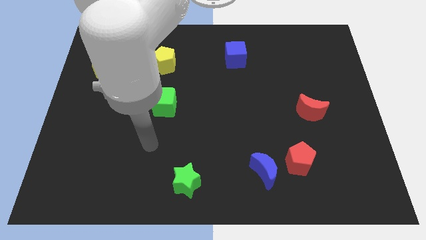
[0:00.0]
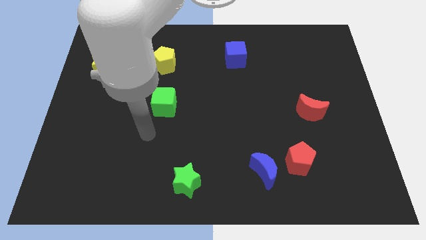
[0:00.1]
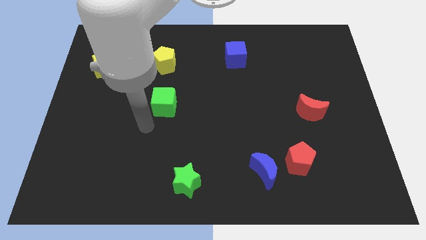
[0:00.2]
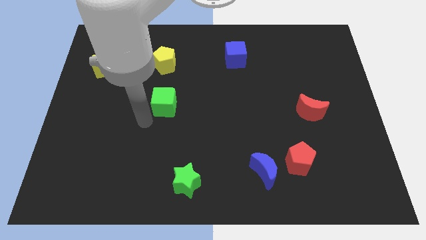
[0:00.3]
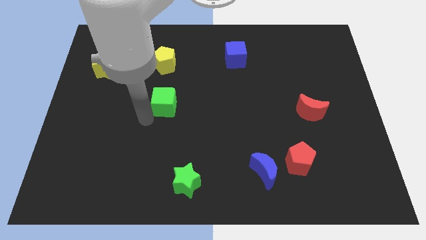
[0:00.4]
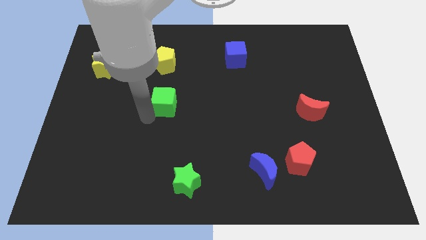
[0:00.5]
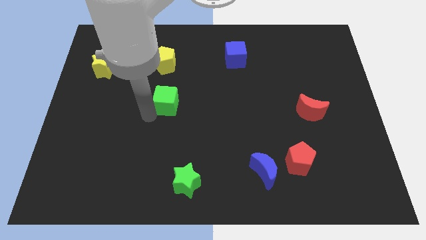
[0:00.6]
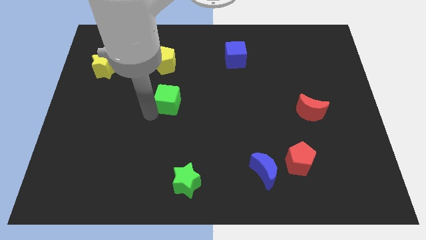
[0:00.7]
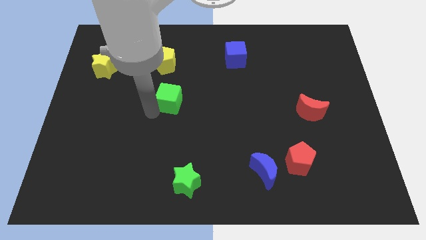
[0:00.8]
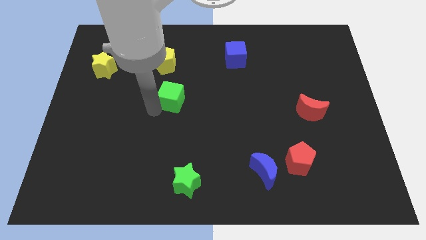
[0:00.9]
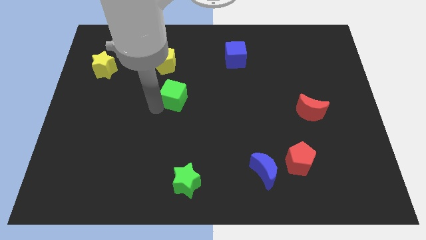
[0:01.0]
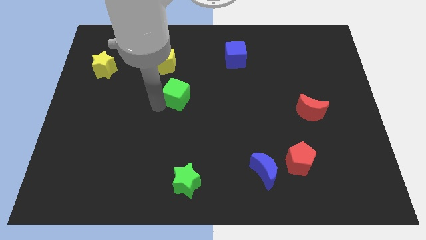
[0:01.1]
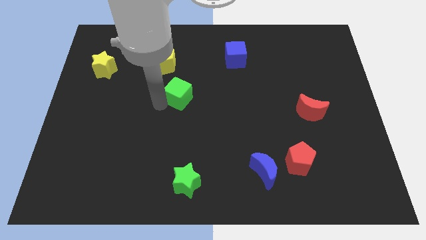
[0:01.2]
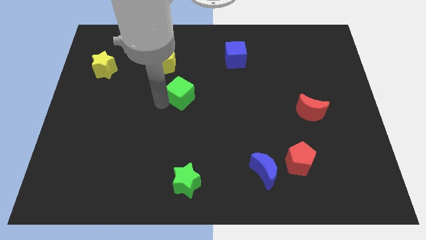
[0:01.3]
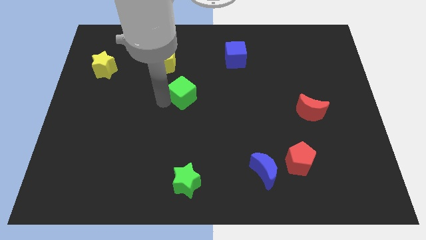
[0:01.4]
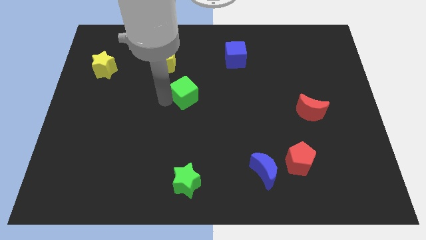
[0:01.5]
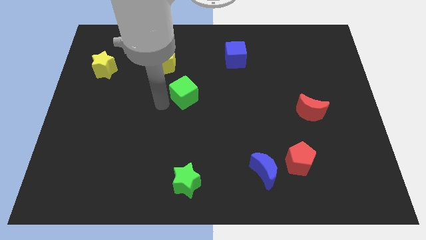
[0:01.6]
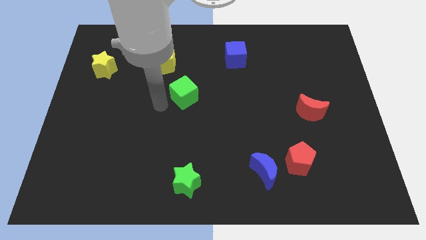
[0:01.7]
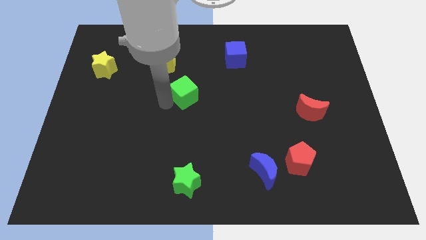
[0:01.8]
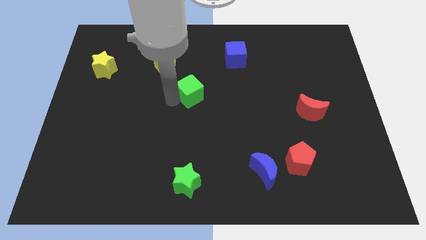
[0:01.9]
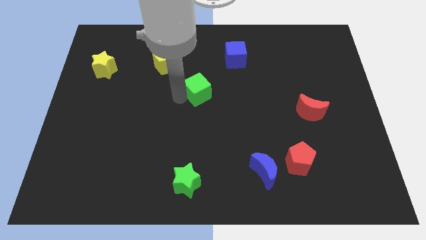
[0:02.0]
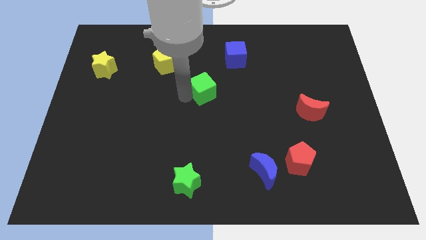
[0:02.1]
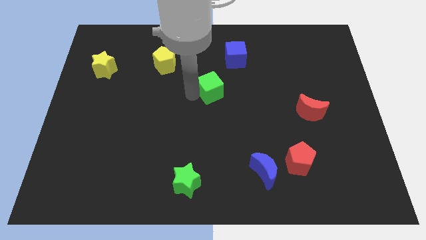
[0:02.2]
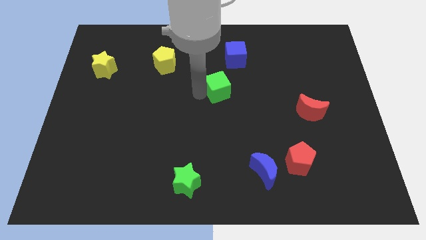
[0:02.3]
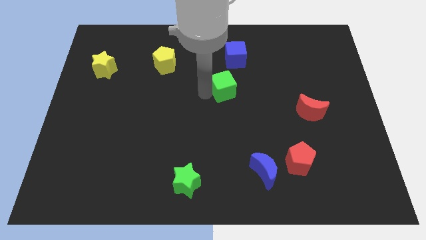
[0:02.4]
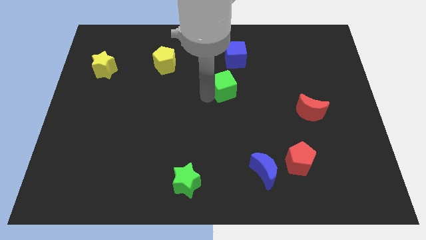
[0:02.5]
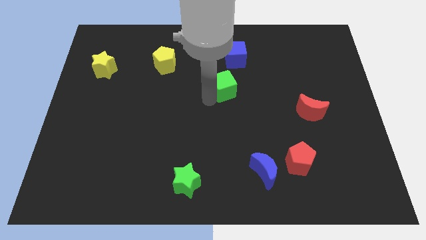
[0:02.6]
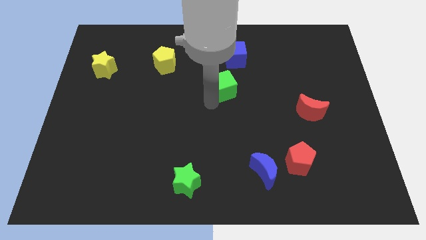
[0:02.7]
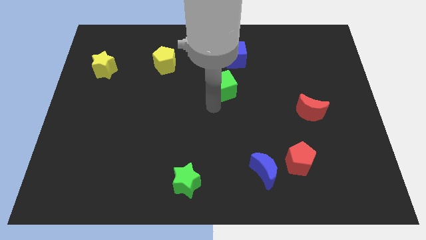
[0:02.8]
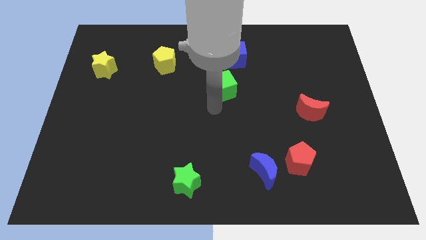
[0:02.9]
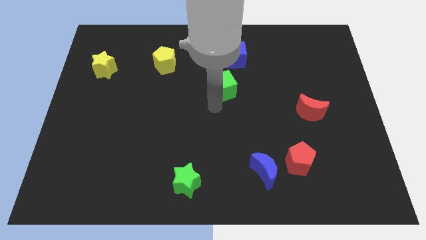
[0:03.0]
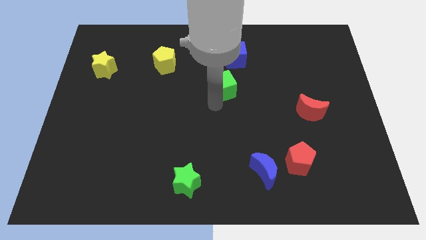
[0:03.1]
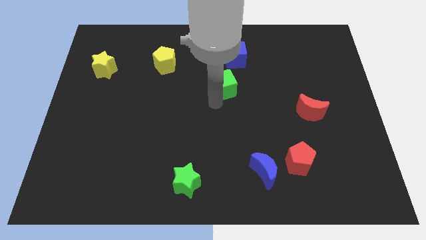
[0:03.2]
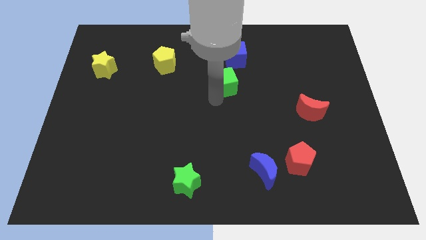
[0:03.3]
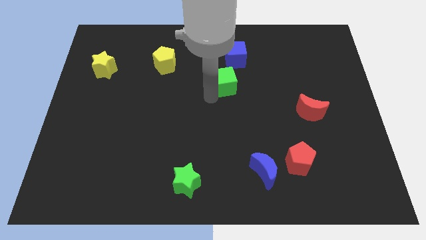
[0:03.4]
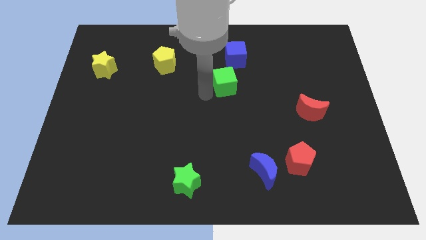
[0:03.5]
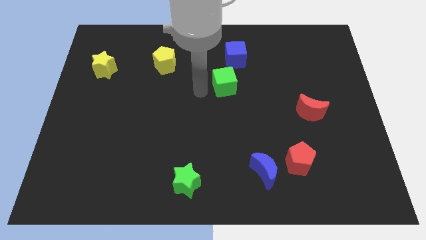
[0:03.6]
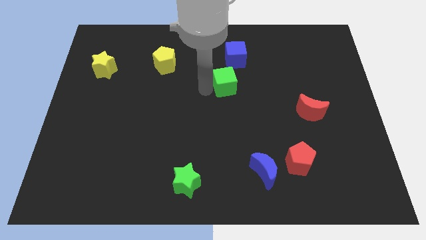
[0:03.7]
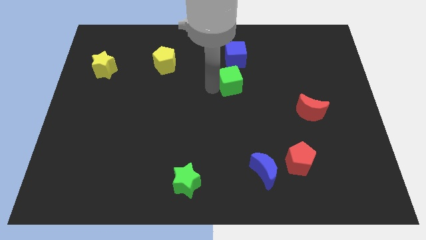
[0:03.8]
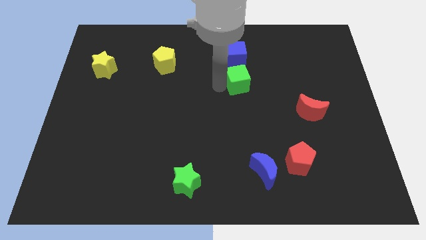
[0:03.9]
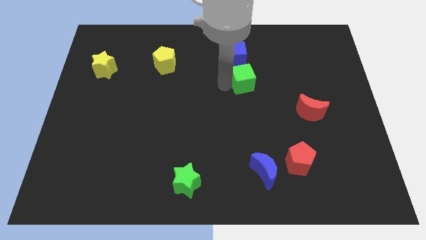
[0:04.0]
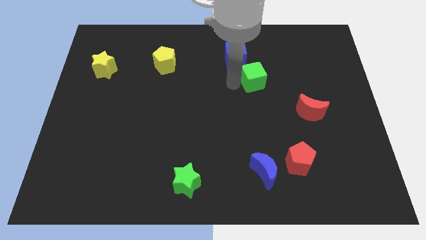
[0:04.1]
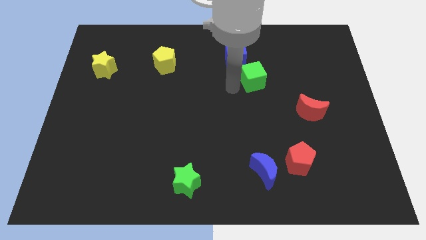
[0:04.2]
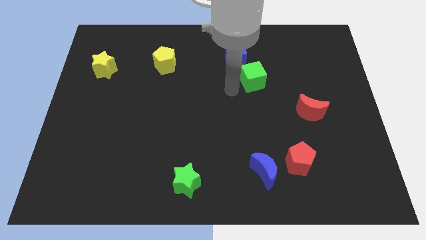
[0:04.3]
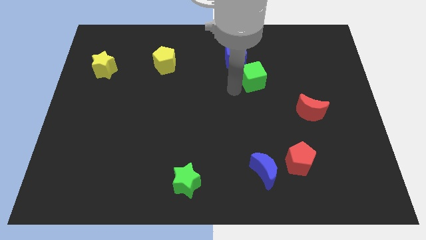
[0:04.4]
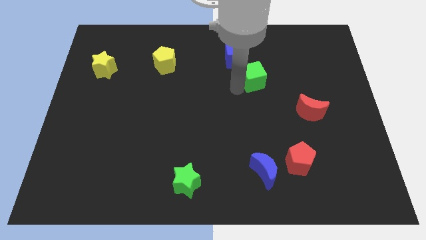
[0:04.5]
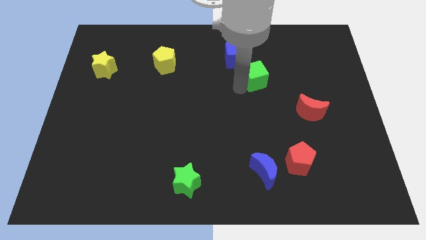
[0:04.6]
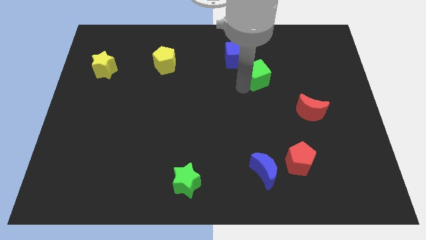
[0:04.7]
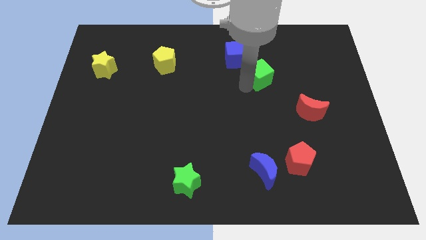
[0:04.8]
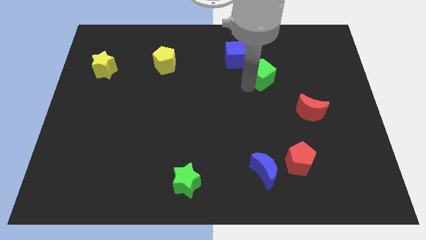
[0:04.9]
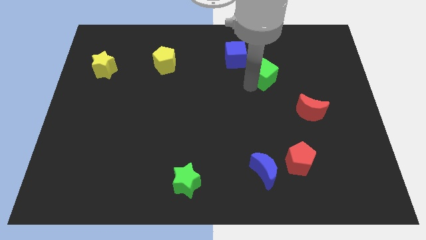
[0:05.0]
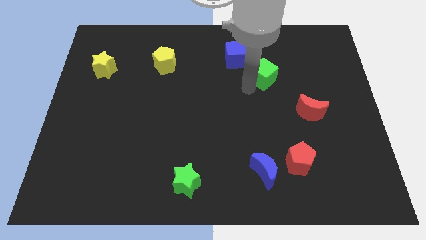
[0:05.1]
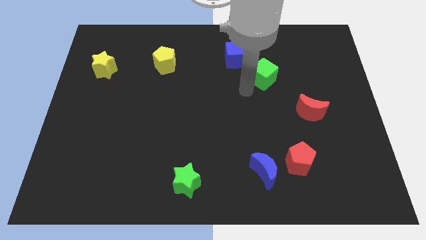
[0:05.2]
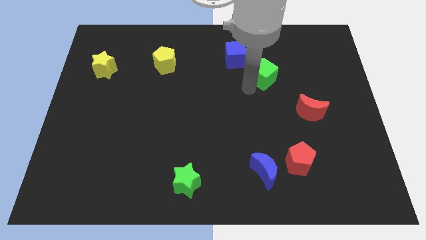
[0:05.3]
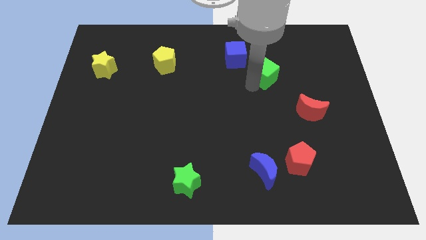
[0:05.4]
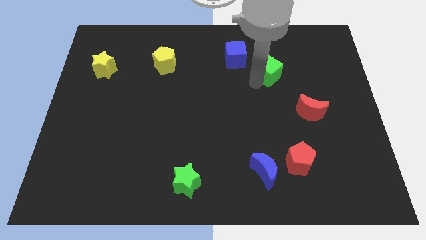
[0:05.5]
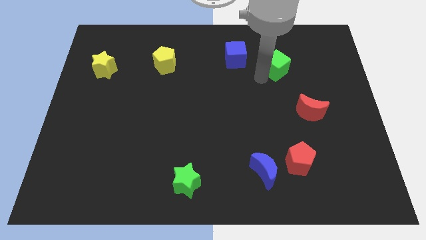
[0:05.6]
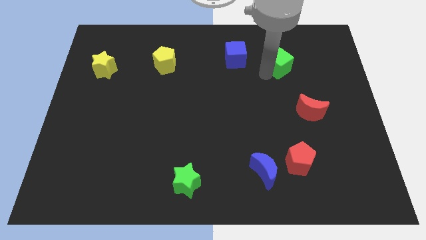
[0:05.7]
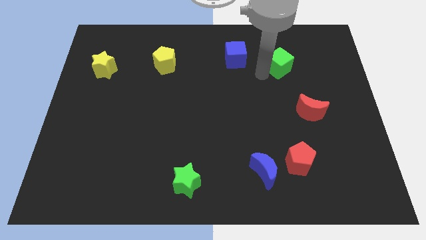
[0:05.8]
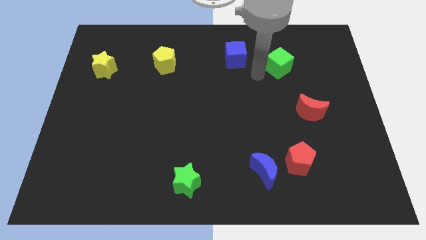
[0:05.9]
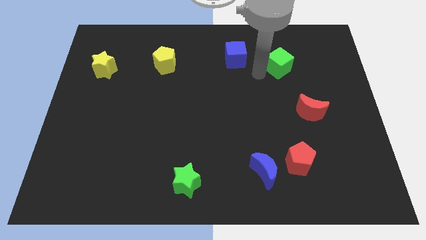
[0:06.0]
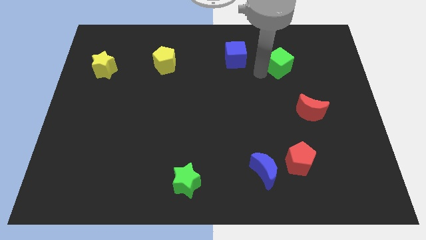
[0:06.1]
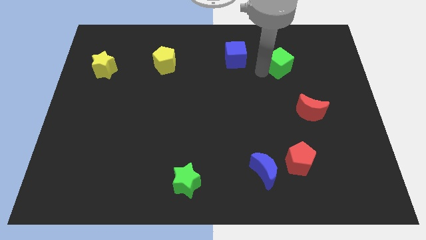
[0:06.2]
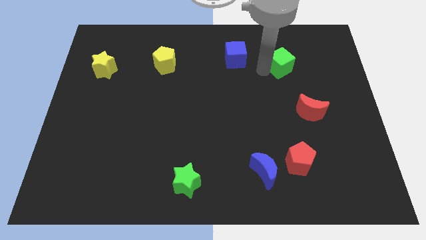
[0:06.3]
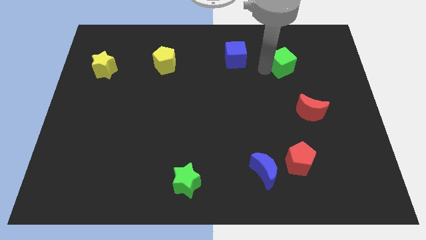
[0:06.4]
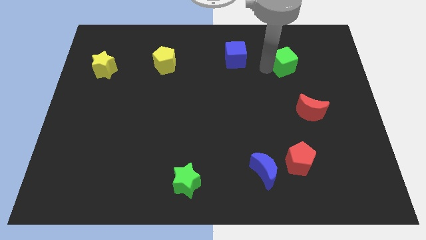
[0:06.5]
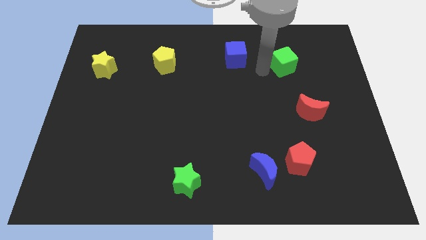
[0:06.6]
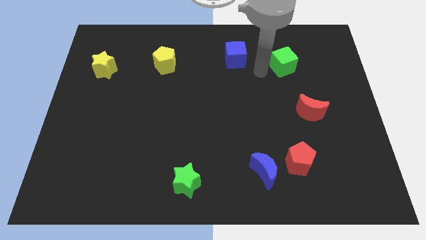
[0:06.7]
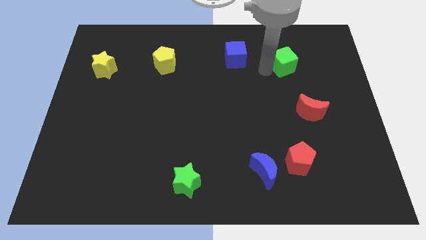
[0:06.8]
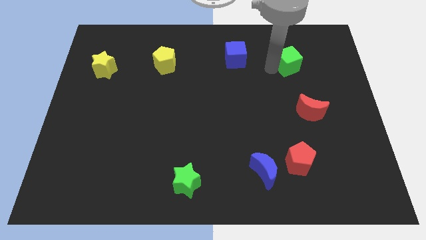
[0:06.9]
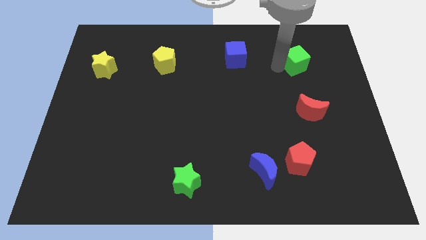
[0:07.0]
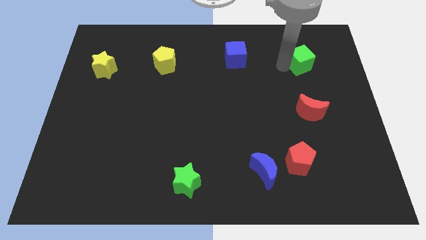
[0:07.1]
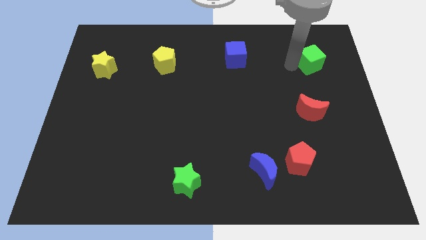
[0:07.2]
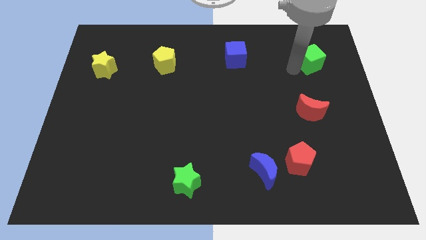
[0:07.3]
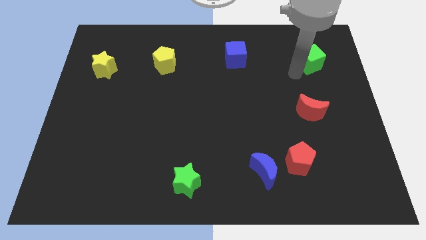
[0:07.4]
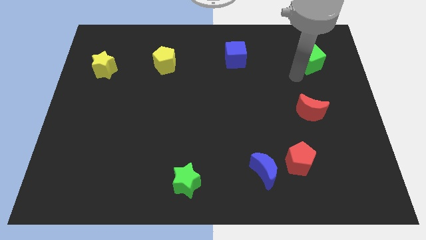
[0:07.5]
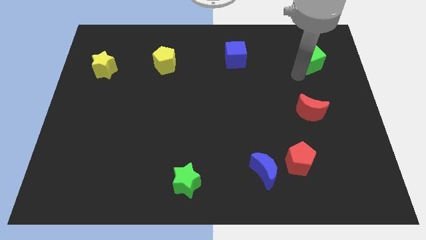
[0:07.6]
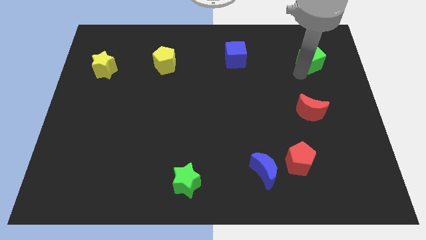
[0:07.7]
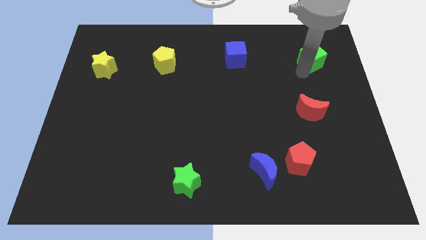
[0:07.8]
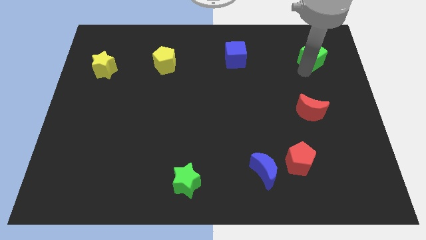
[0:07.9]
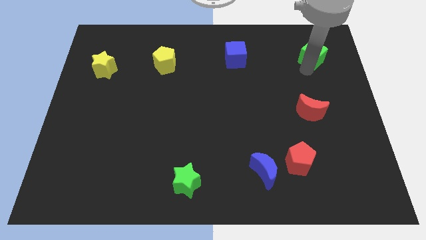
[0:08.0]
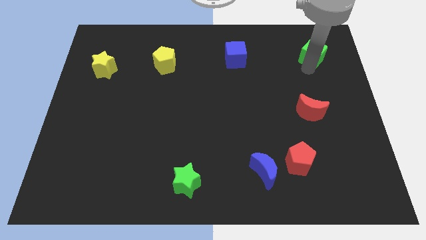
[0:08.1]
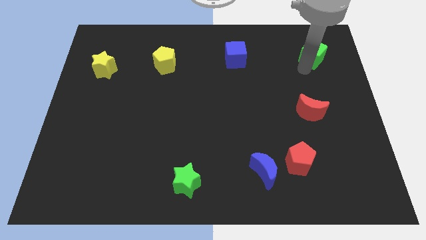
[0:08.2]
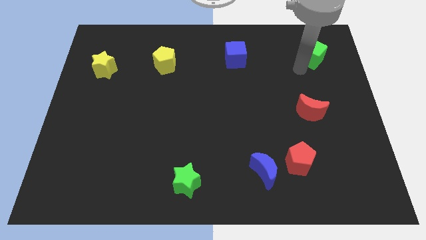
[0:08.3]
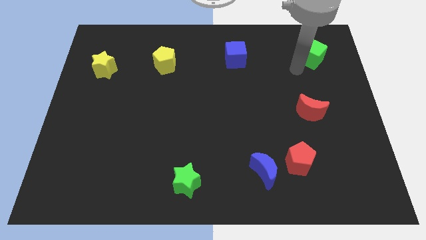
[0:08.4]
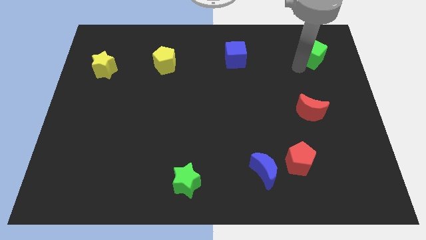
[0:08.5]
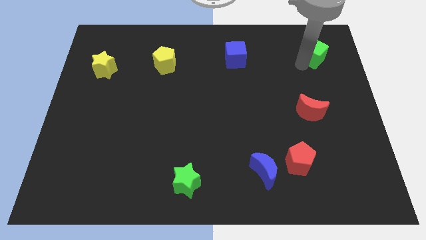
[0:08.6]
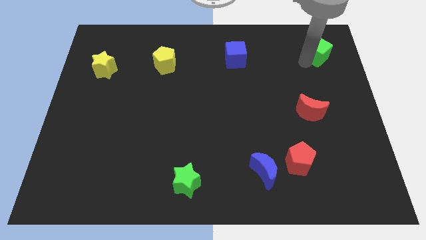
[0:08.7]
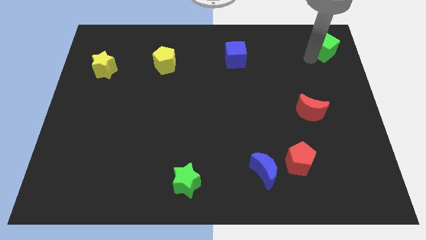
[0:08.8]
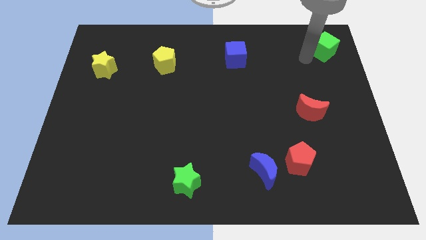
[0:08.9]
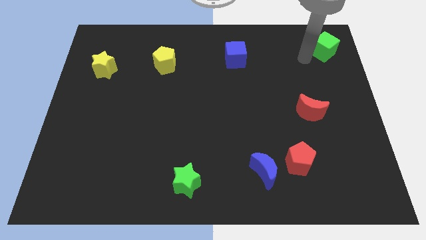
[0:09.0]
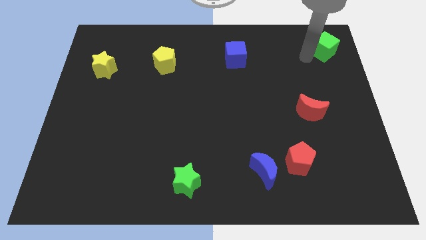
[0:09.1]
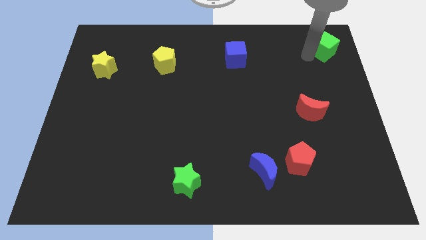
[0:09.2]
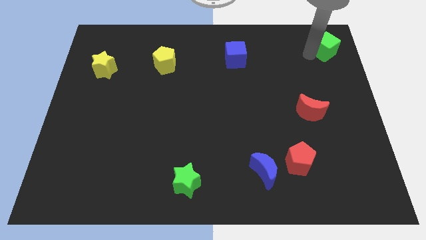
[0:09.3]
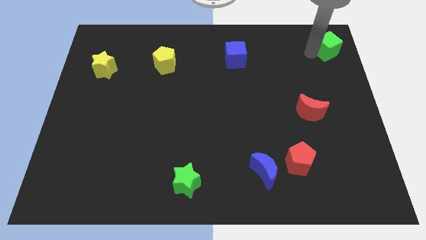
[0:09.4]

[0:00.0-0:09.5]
push the green cube to the top right of the board
